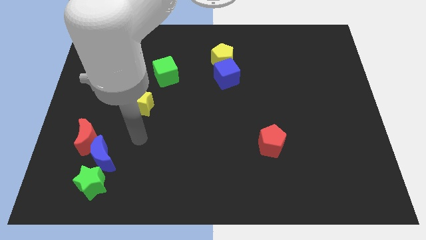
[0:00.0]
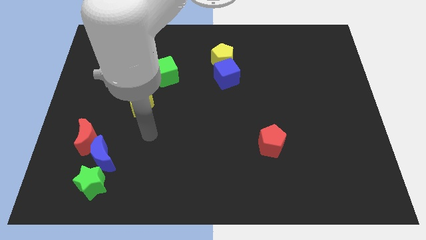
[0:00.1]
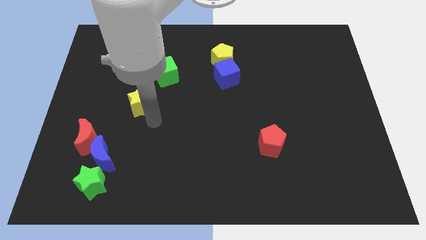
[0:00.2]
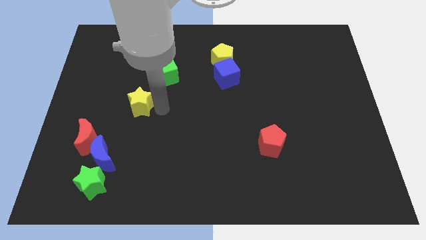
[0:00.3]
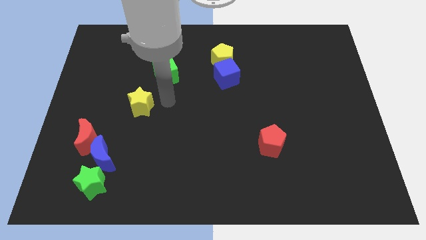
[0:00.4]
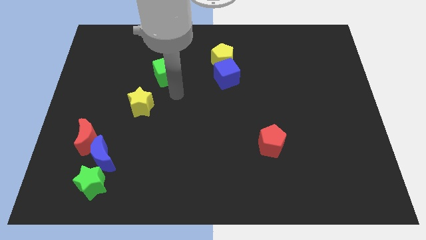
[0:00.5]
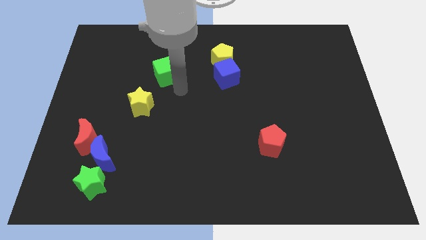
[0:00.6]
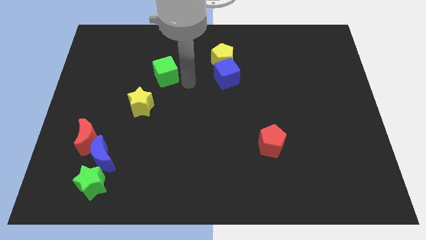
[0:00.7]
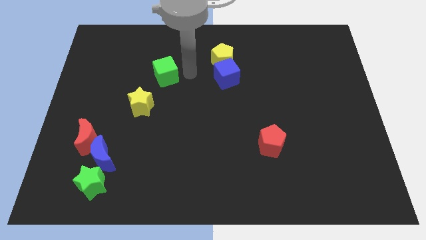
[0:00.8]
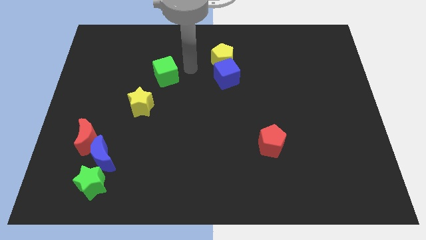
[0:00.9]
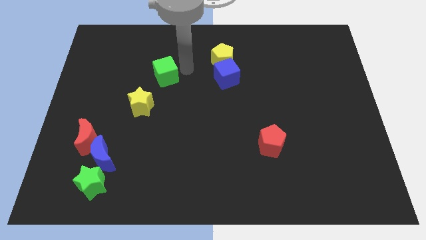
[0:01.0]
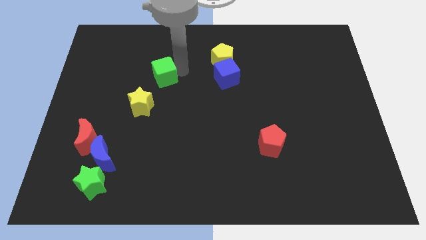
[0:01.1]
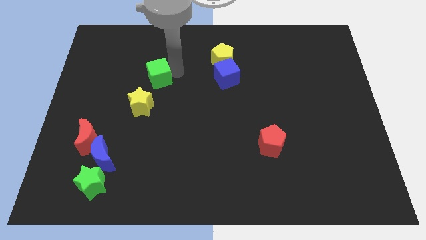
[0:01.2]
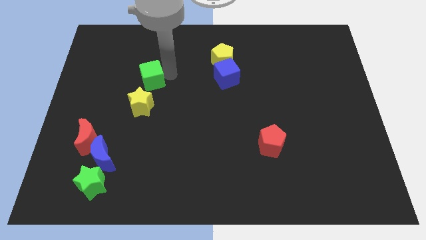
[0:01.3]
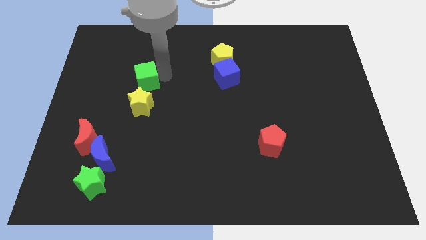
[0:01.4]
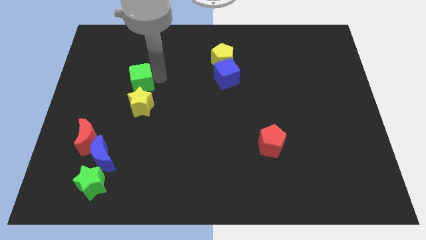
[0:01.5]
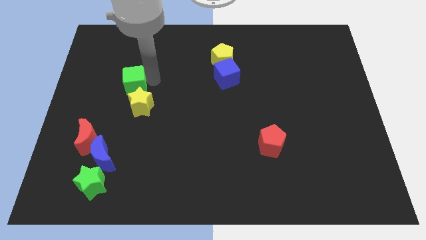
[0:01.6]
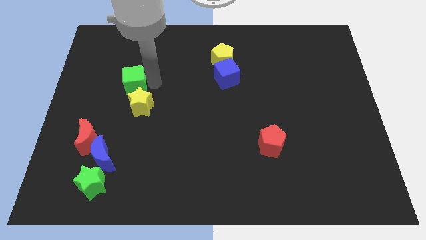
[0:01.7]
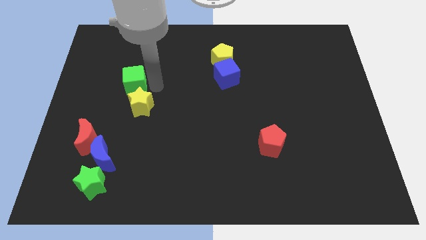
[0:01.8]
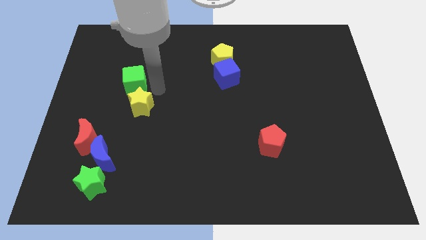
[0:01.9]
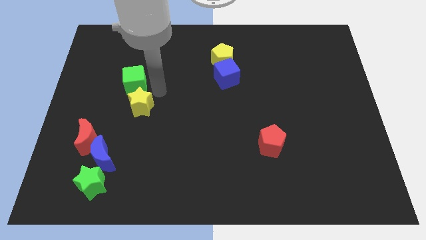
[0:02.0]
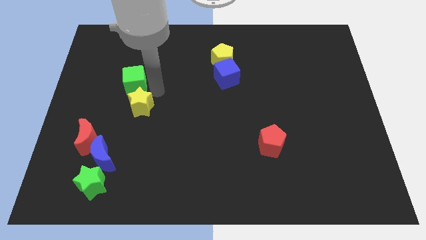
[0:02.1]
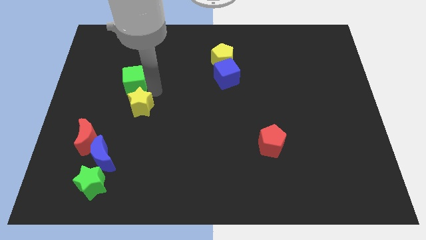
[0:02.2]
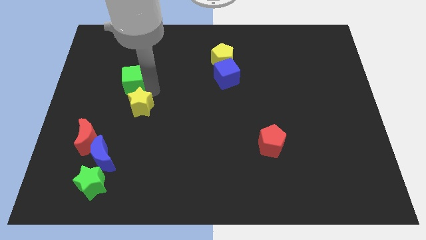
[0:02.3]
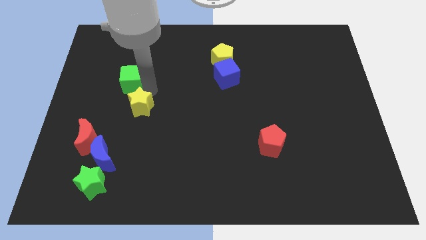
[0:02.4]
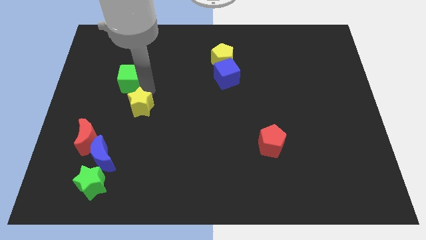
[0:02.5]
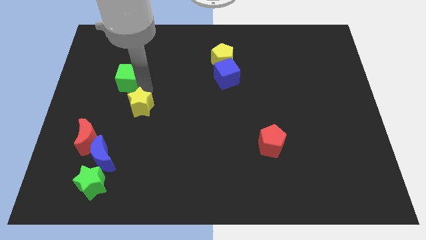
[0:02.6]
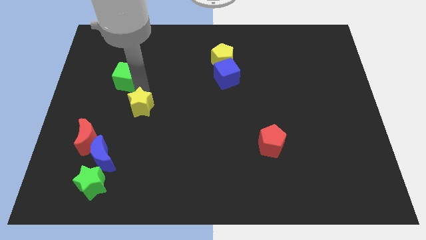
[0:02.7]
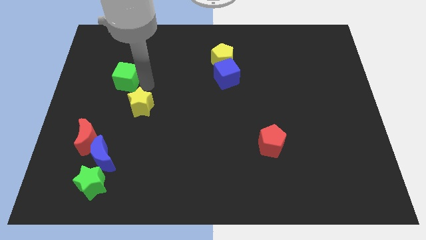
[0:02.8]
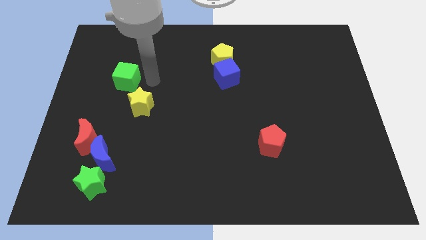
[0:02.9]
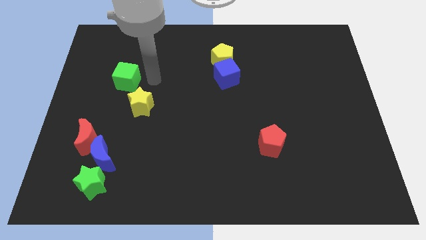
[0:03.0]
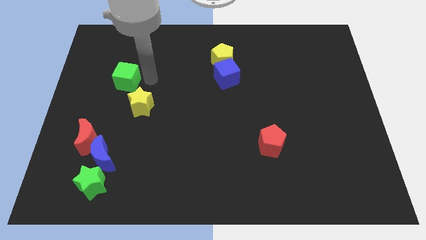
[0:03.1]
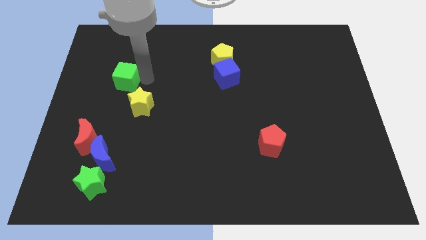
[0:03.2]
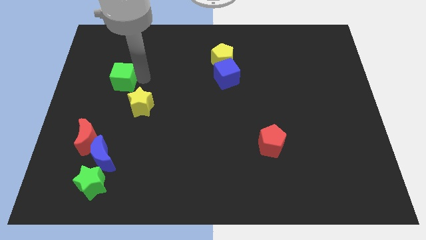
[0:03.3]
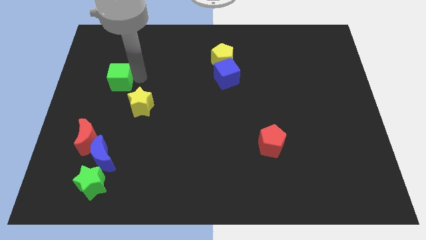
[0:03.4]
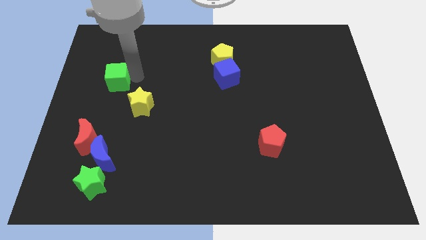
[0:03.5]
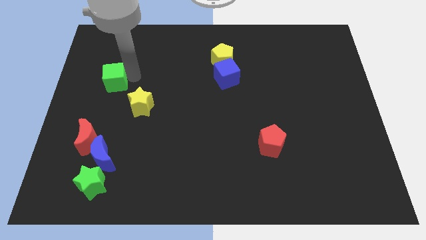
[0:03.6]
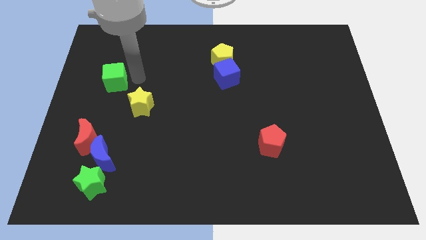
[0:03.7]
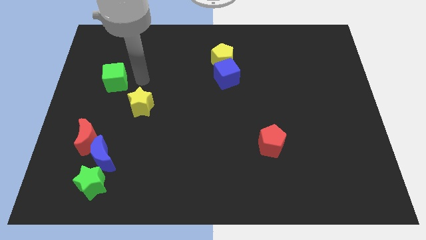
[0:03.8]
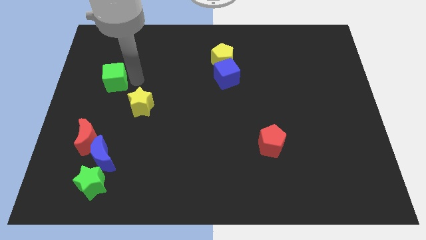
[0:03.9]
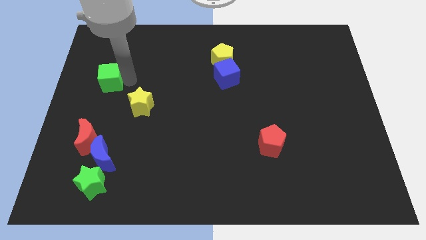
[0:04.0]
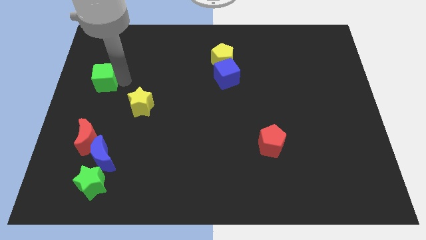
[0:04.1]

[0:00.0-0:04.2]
move the green cube to the center left

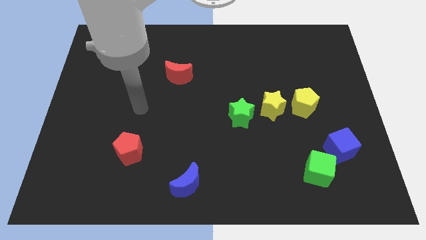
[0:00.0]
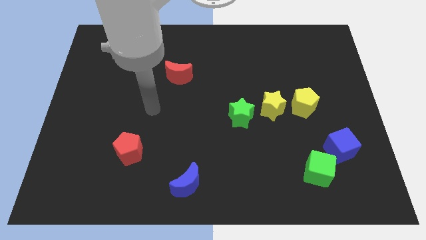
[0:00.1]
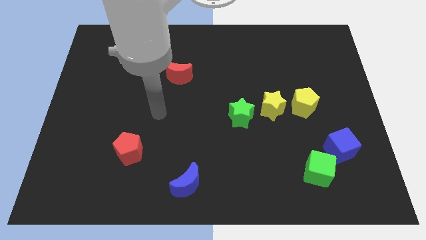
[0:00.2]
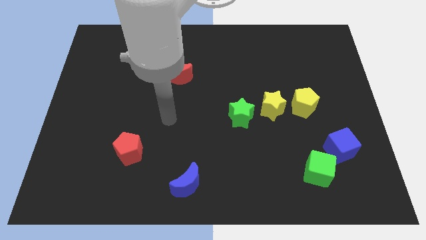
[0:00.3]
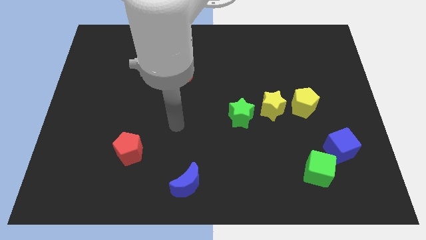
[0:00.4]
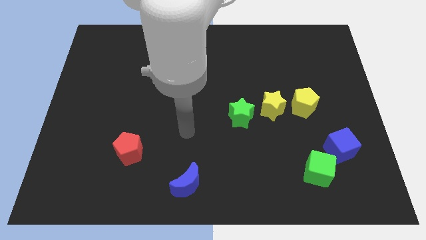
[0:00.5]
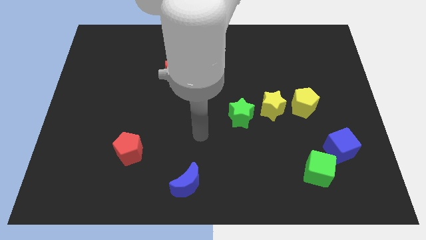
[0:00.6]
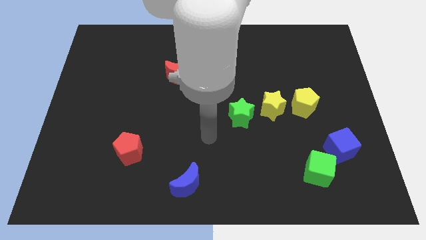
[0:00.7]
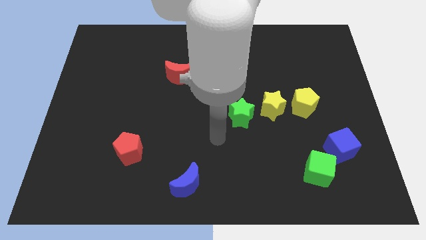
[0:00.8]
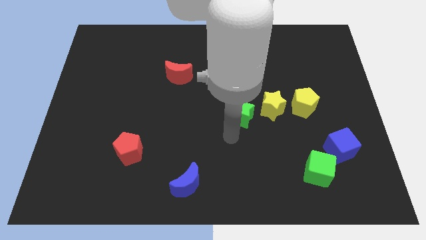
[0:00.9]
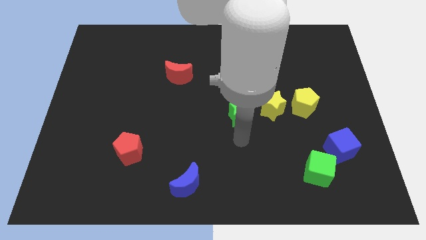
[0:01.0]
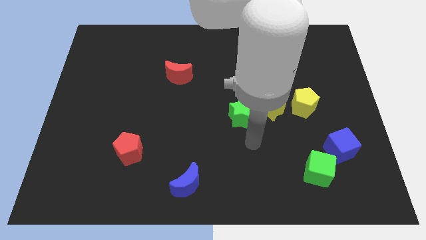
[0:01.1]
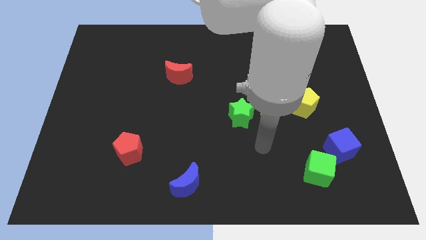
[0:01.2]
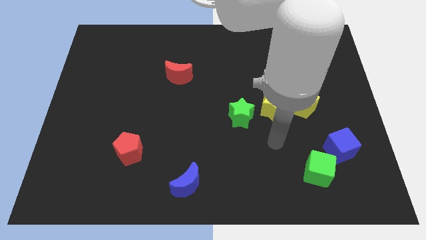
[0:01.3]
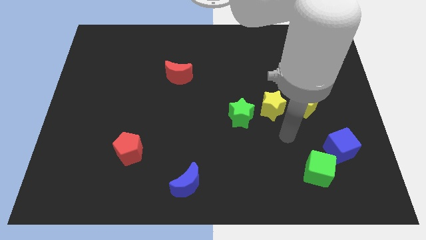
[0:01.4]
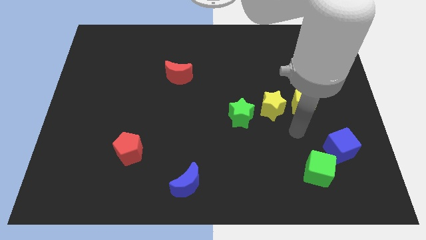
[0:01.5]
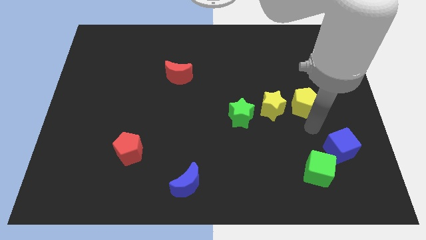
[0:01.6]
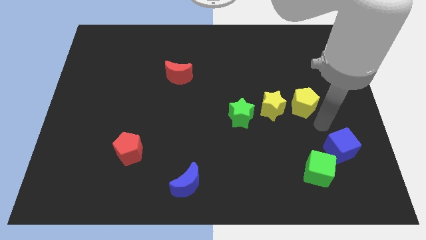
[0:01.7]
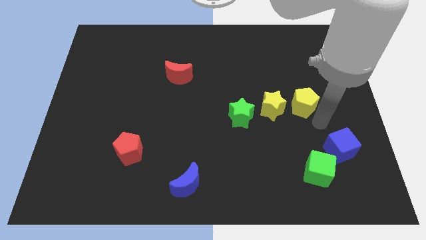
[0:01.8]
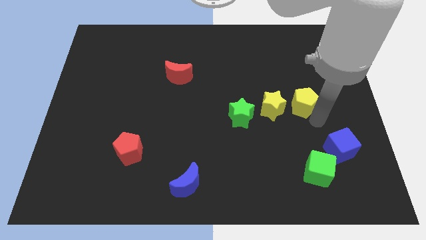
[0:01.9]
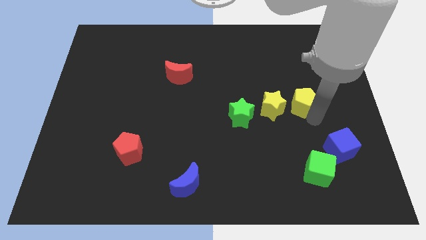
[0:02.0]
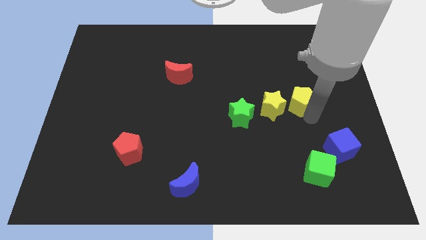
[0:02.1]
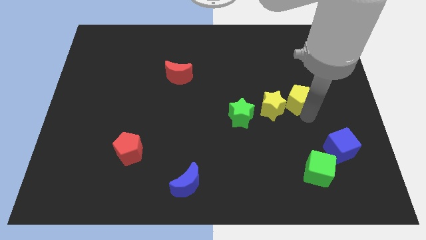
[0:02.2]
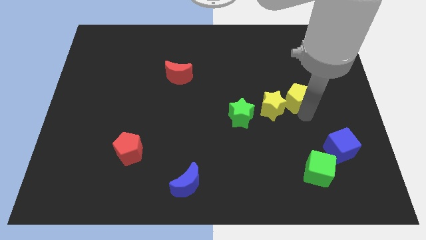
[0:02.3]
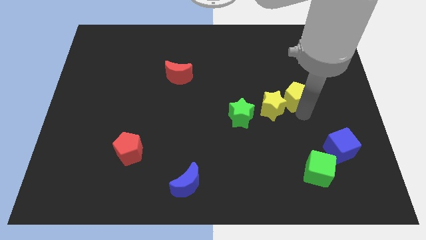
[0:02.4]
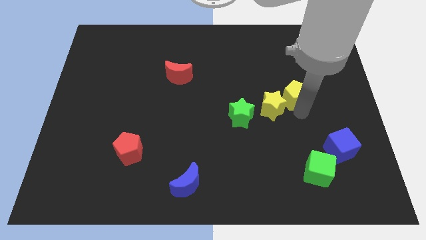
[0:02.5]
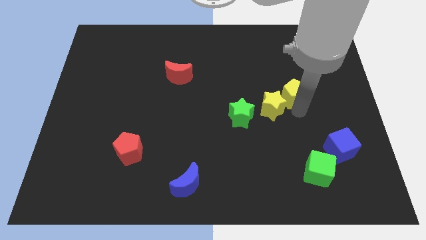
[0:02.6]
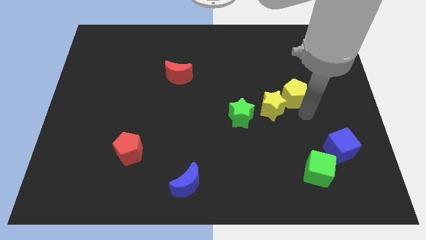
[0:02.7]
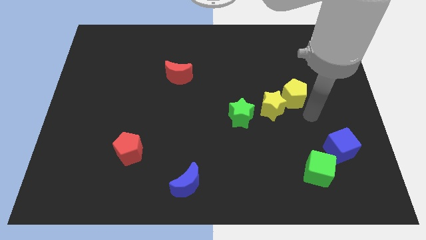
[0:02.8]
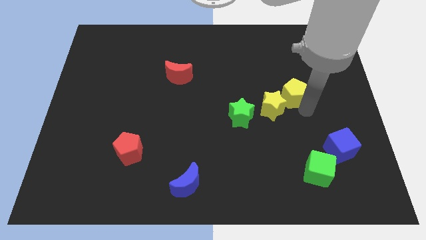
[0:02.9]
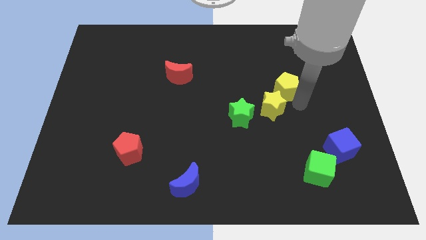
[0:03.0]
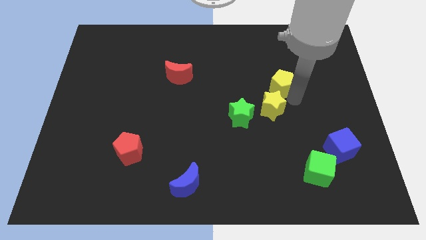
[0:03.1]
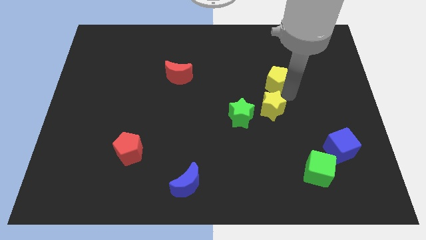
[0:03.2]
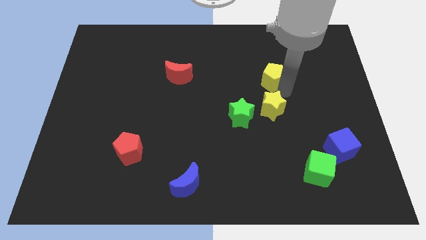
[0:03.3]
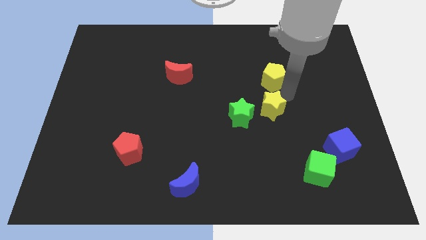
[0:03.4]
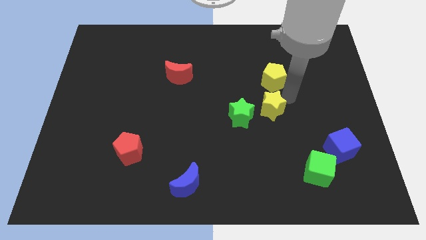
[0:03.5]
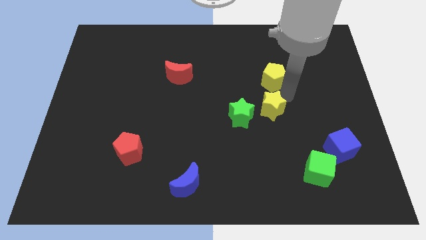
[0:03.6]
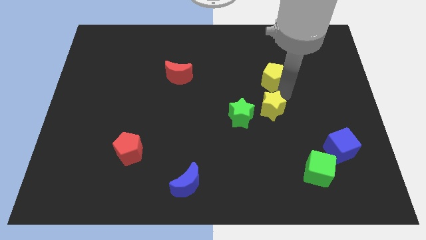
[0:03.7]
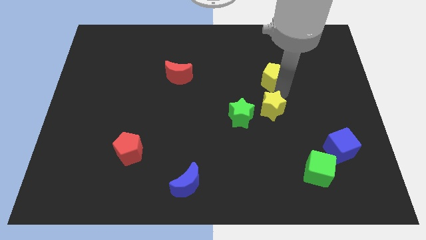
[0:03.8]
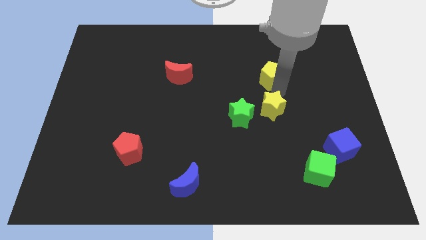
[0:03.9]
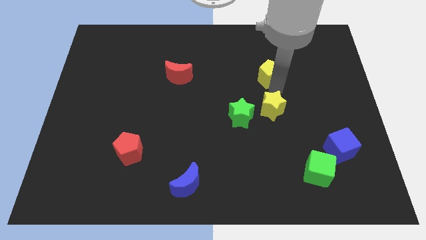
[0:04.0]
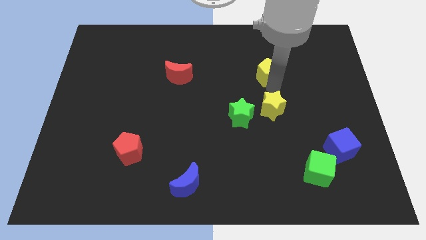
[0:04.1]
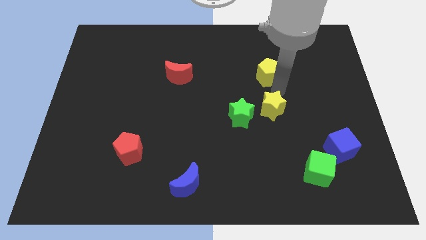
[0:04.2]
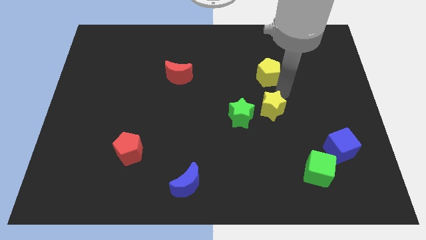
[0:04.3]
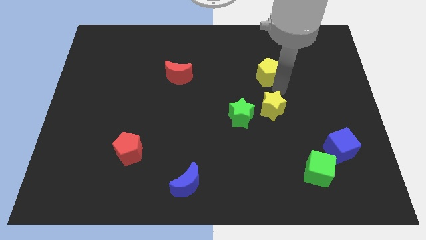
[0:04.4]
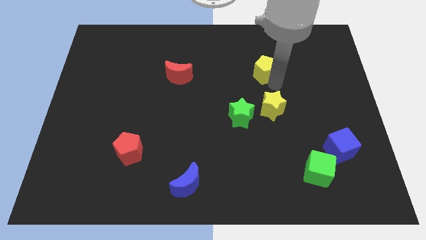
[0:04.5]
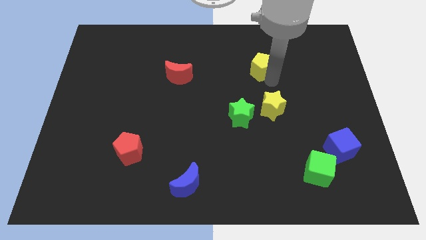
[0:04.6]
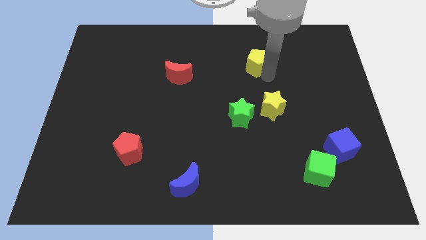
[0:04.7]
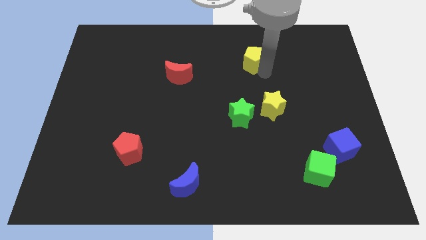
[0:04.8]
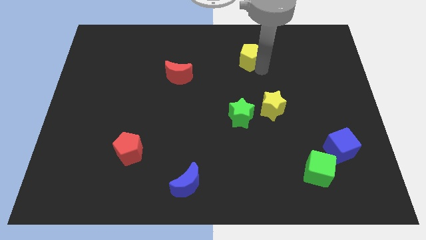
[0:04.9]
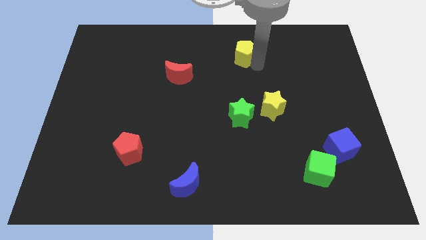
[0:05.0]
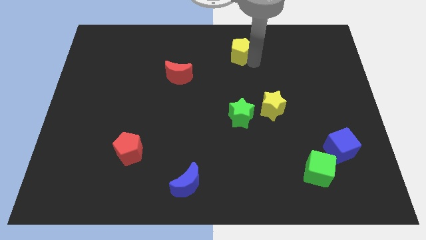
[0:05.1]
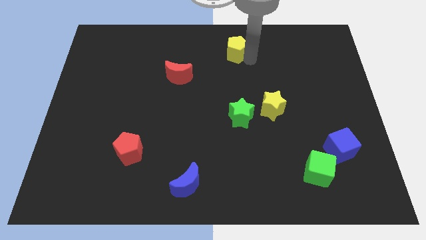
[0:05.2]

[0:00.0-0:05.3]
slide the yellow pentagon to the towards your base
